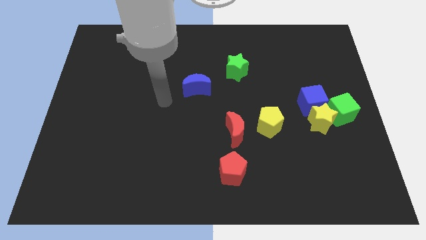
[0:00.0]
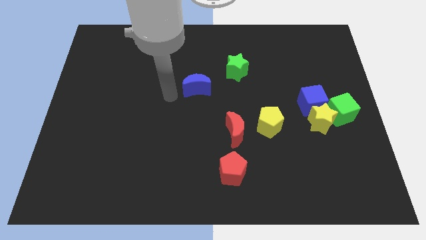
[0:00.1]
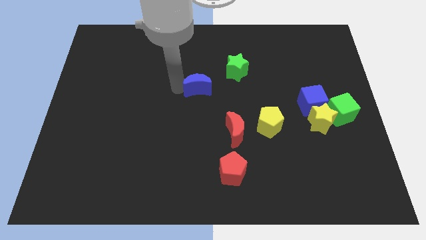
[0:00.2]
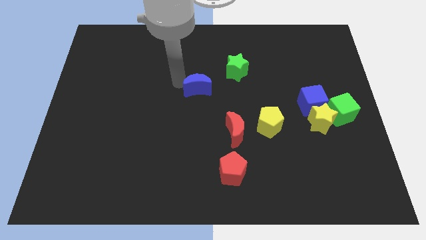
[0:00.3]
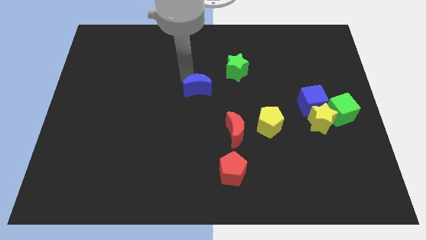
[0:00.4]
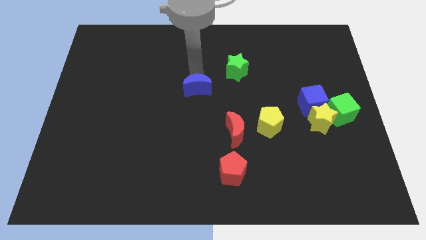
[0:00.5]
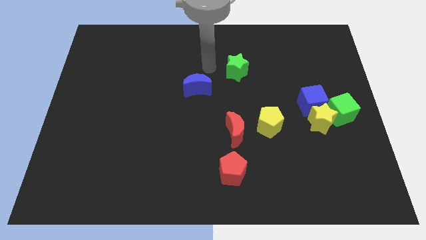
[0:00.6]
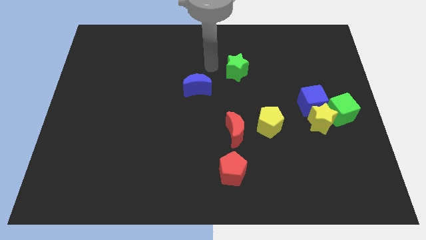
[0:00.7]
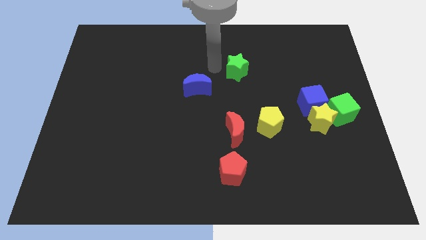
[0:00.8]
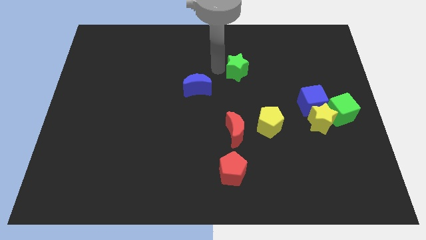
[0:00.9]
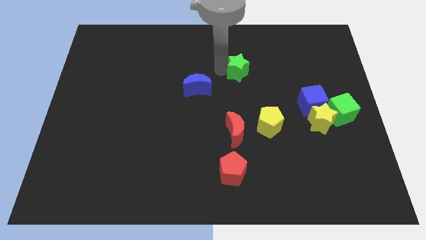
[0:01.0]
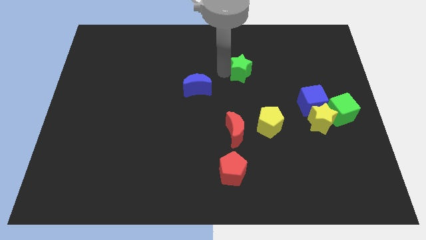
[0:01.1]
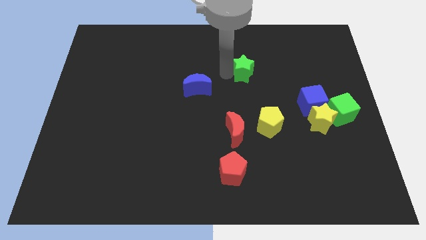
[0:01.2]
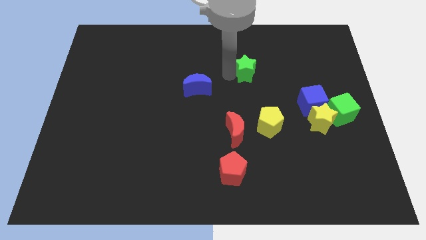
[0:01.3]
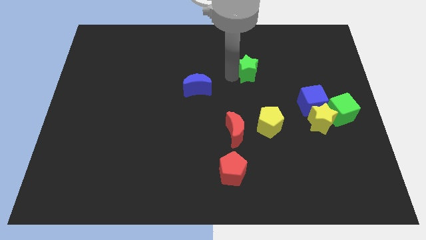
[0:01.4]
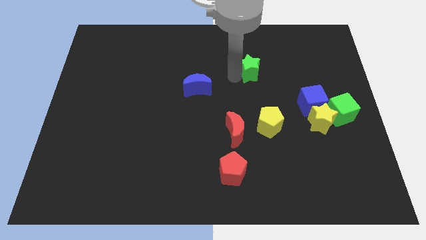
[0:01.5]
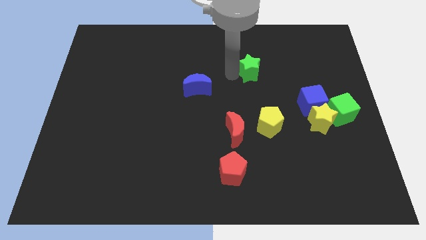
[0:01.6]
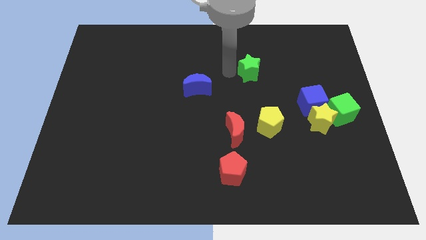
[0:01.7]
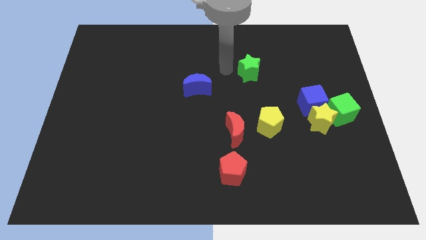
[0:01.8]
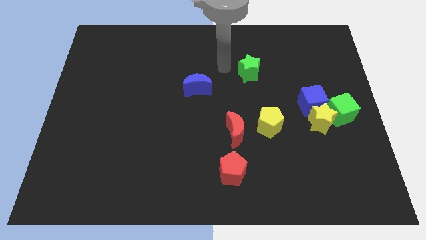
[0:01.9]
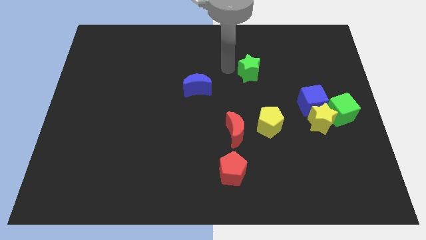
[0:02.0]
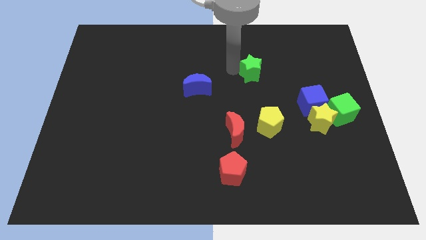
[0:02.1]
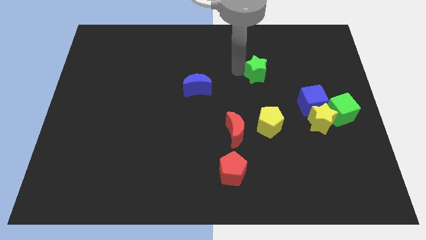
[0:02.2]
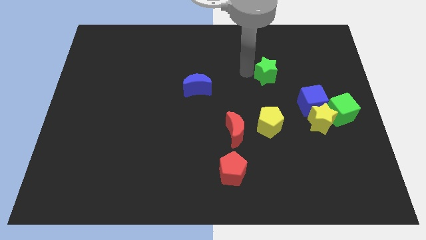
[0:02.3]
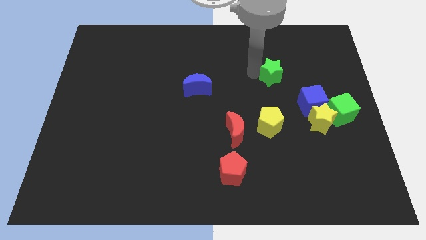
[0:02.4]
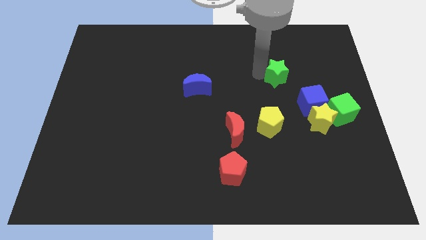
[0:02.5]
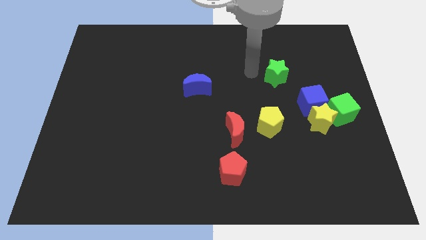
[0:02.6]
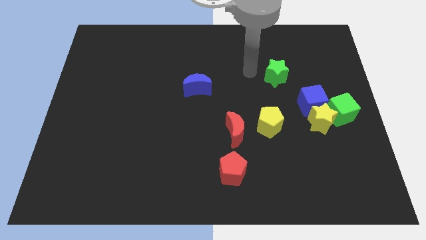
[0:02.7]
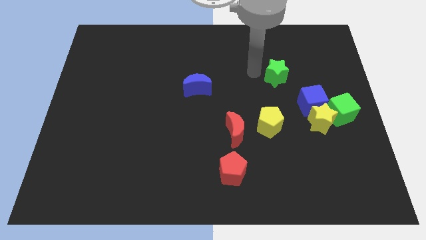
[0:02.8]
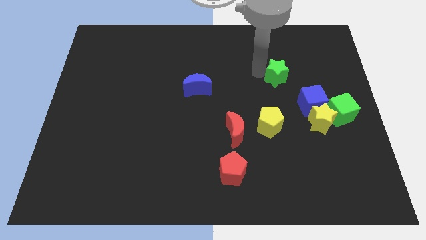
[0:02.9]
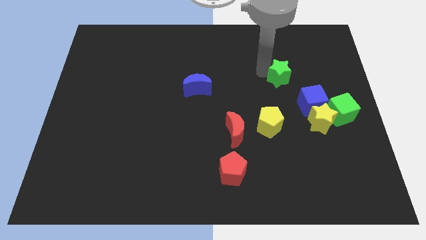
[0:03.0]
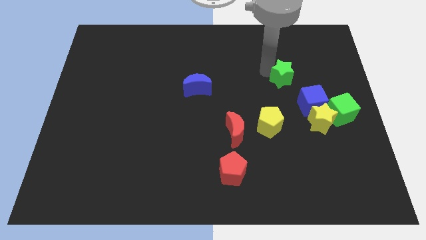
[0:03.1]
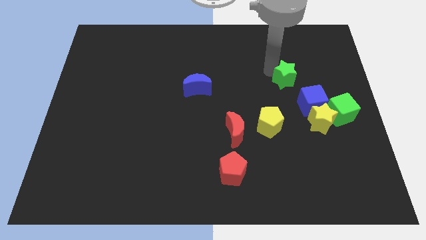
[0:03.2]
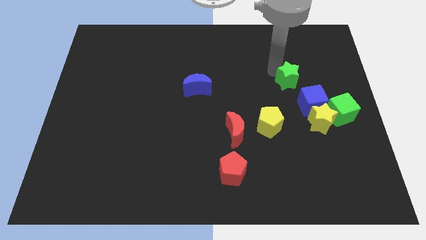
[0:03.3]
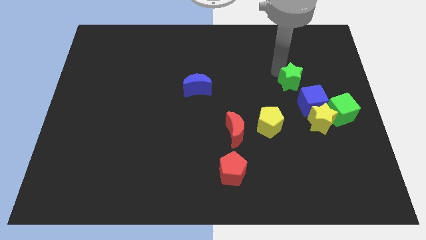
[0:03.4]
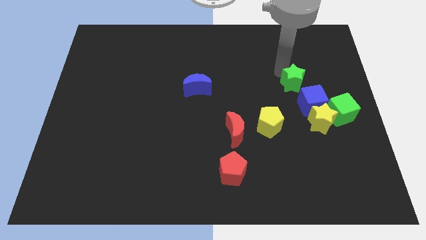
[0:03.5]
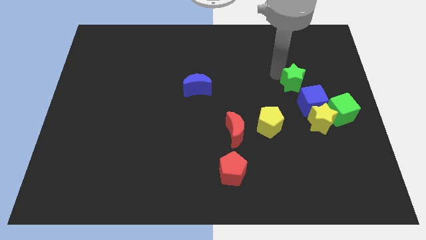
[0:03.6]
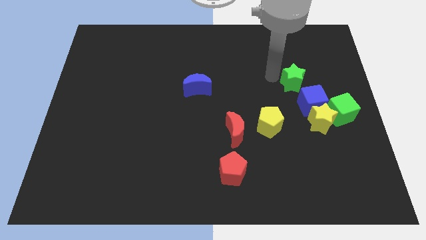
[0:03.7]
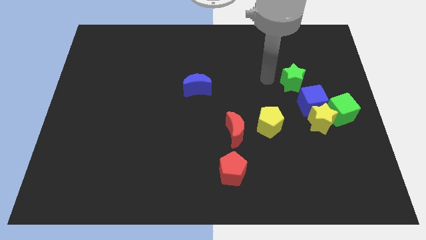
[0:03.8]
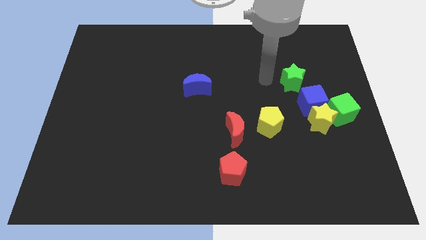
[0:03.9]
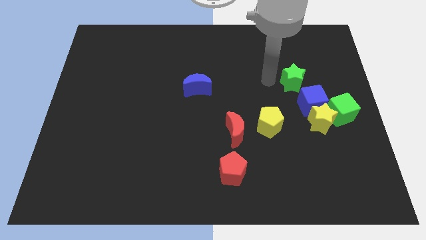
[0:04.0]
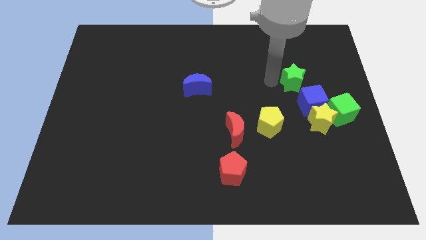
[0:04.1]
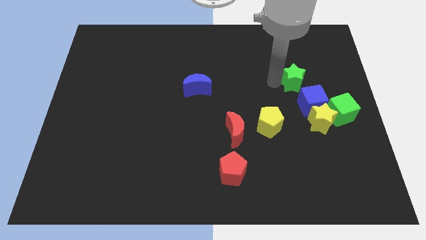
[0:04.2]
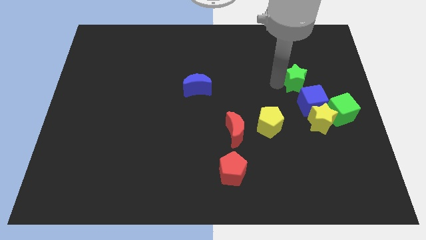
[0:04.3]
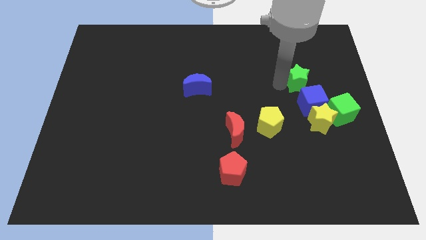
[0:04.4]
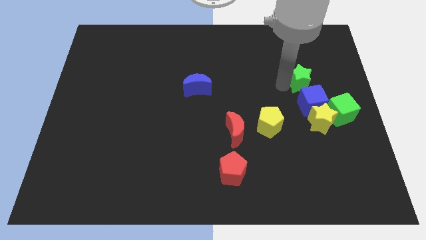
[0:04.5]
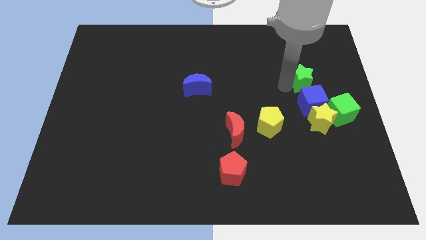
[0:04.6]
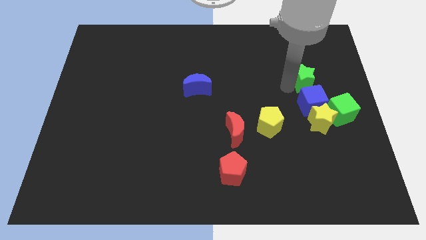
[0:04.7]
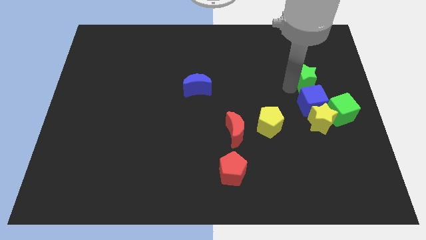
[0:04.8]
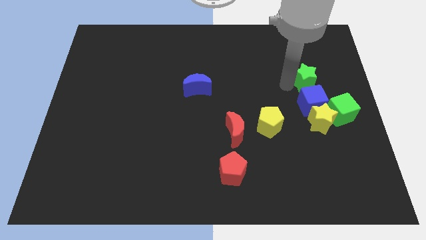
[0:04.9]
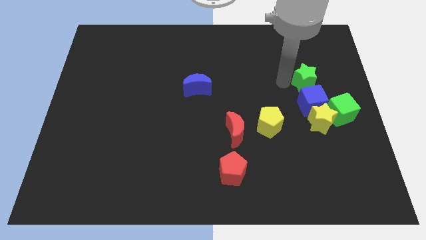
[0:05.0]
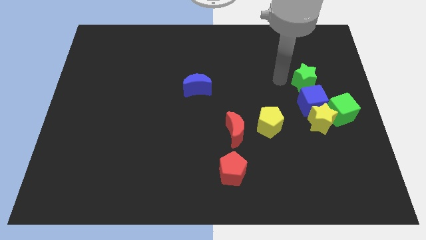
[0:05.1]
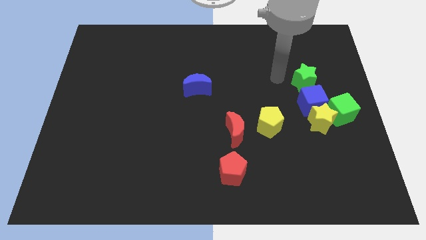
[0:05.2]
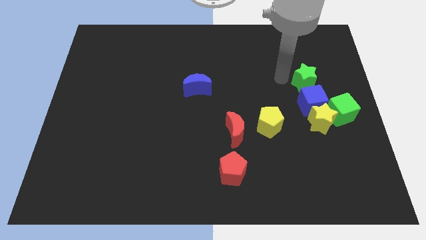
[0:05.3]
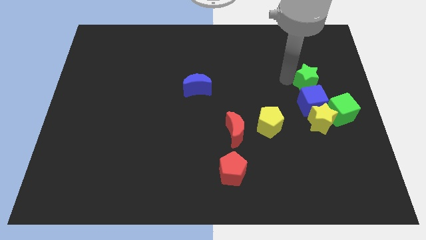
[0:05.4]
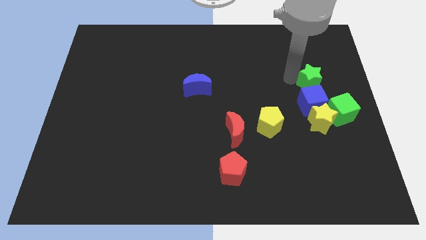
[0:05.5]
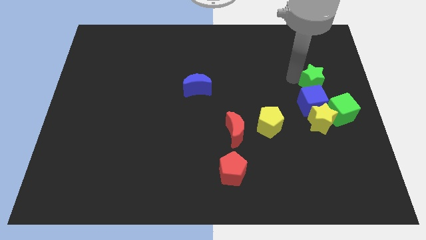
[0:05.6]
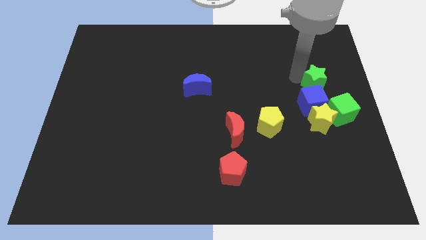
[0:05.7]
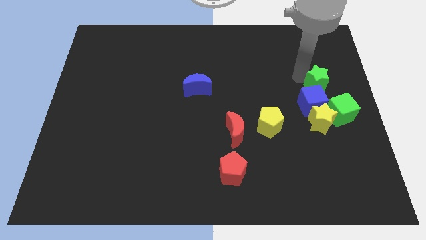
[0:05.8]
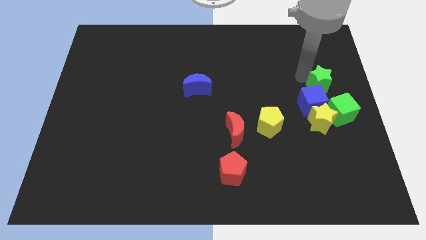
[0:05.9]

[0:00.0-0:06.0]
move the green star to the right side of the board
